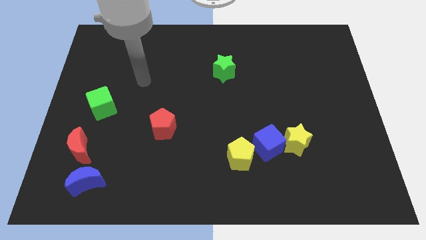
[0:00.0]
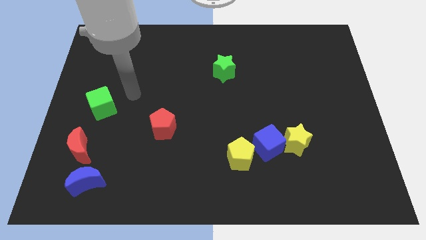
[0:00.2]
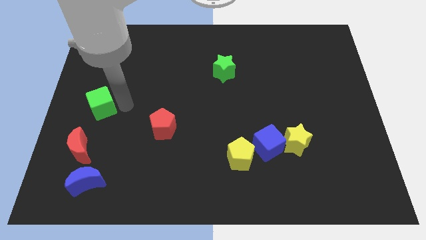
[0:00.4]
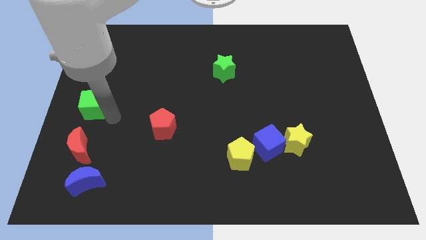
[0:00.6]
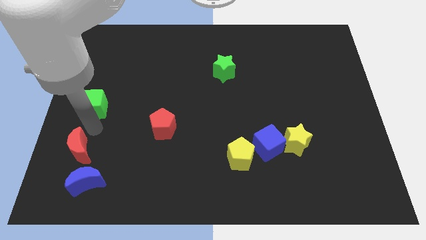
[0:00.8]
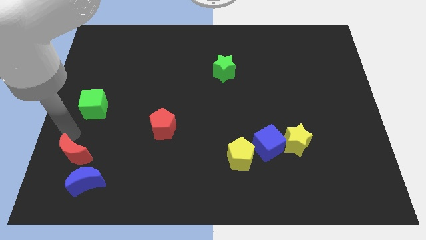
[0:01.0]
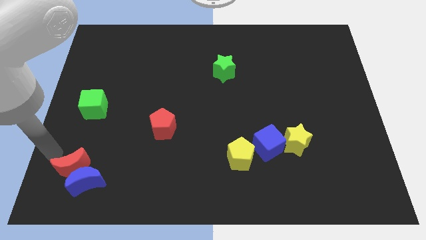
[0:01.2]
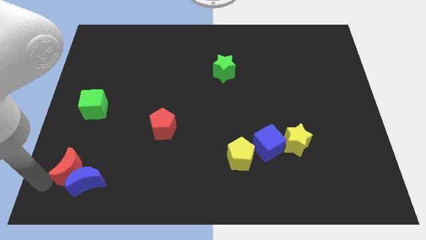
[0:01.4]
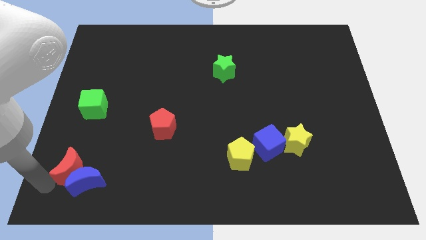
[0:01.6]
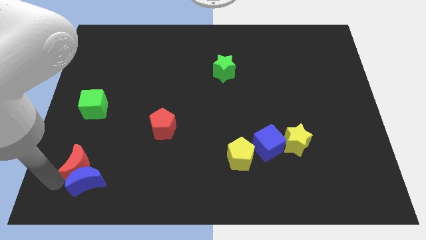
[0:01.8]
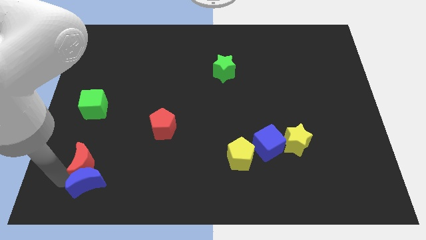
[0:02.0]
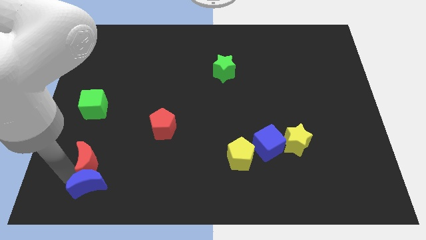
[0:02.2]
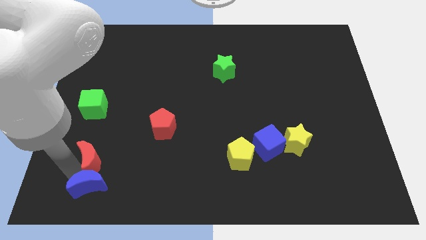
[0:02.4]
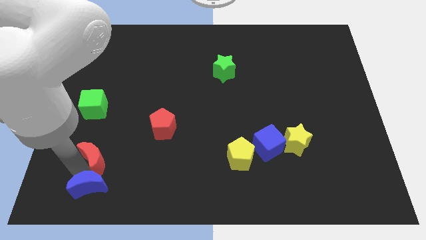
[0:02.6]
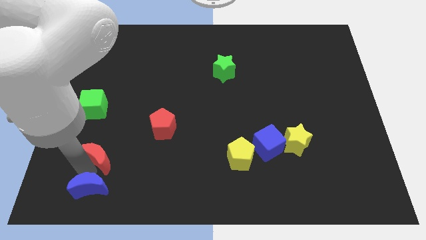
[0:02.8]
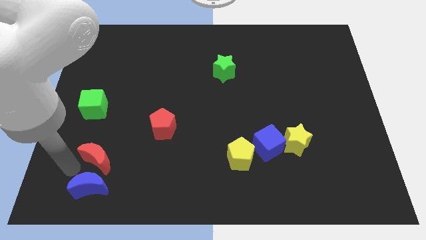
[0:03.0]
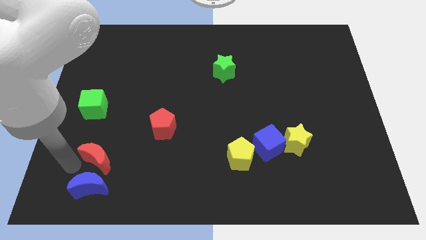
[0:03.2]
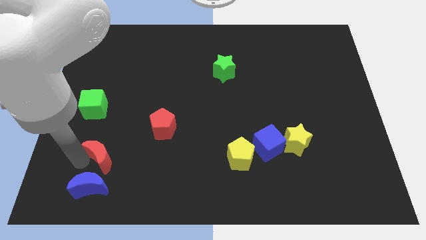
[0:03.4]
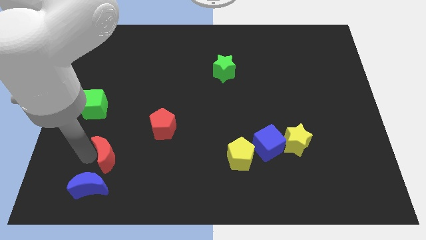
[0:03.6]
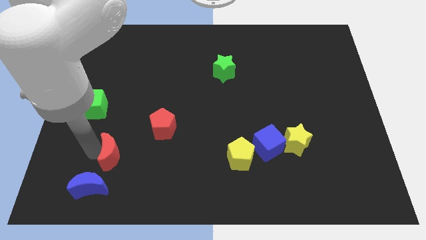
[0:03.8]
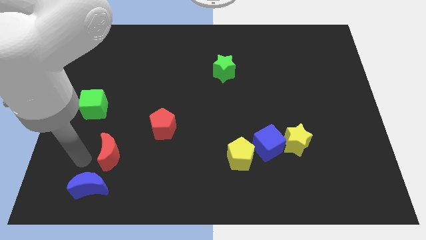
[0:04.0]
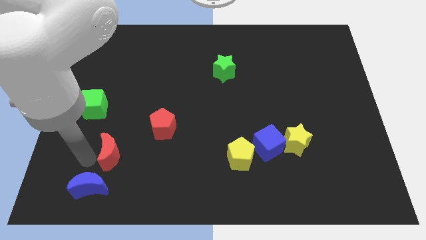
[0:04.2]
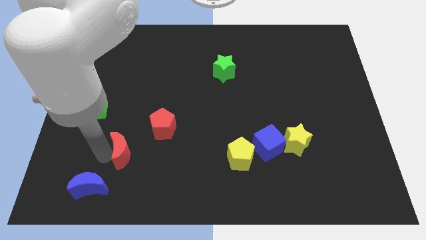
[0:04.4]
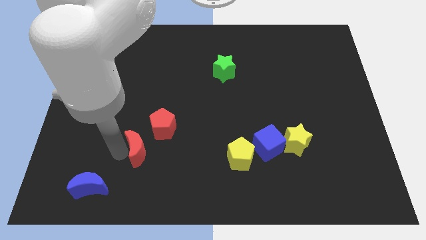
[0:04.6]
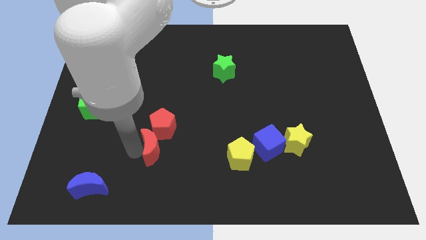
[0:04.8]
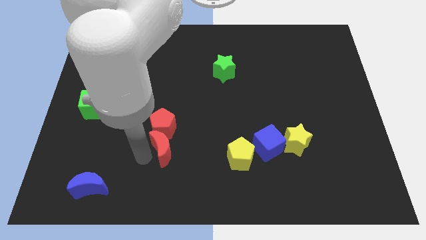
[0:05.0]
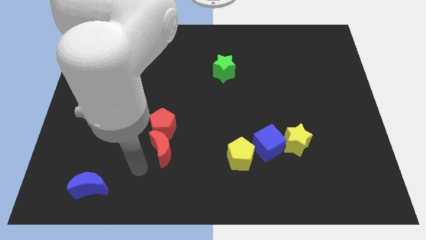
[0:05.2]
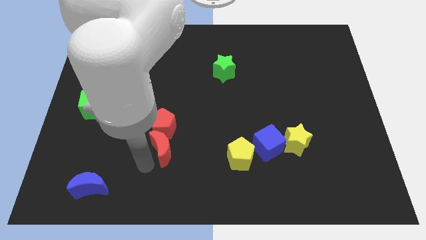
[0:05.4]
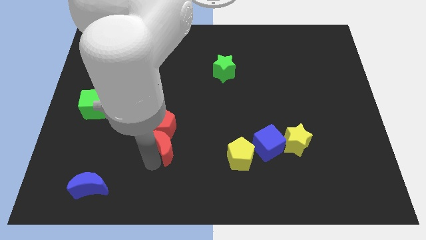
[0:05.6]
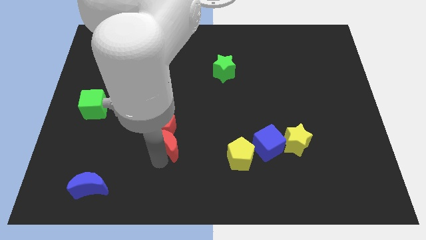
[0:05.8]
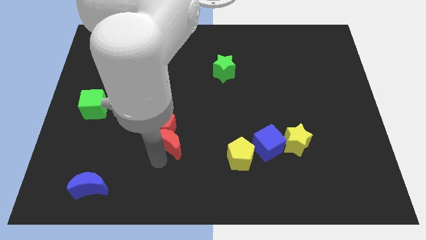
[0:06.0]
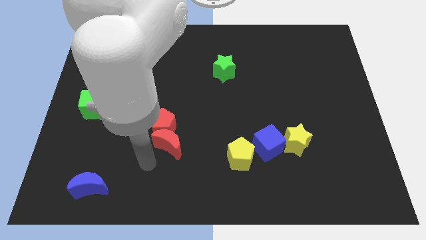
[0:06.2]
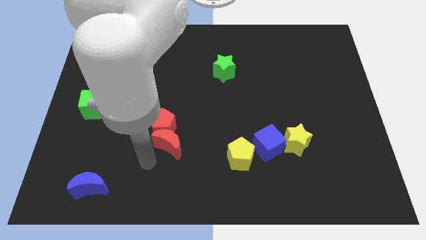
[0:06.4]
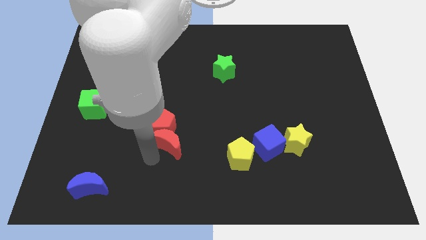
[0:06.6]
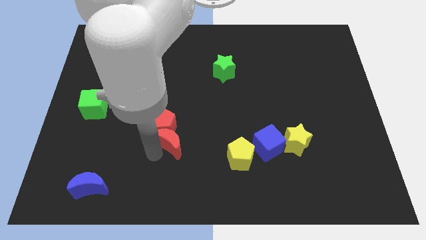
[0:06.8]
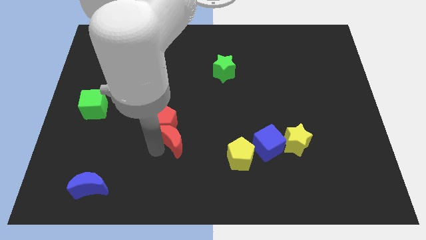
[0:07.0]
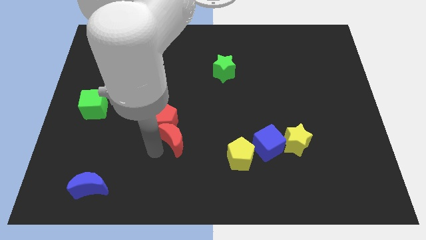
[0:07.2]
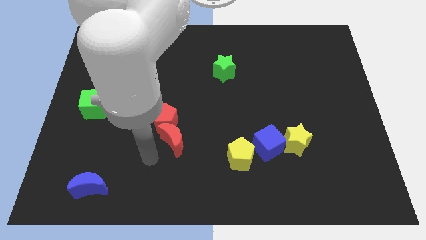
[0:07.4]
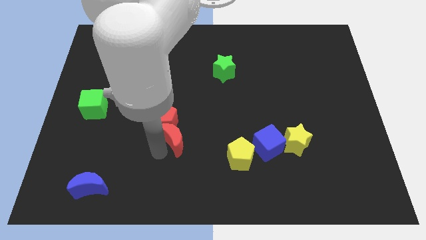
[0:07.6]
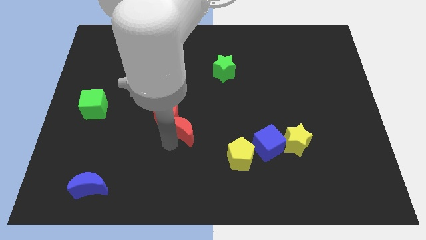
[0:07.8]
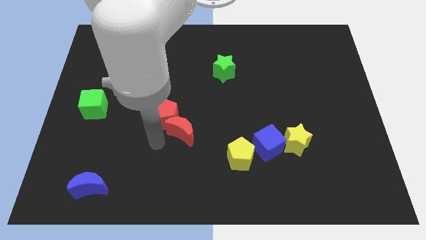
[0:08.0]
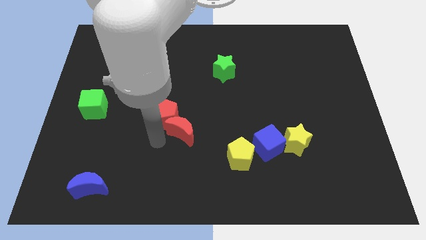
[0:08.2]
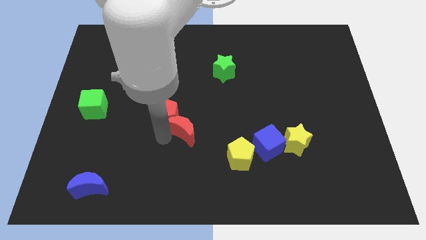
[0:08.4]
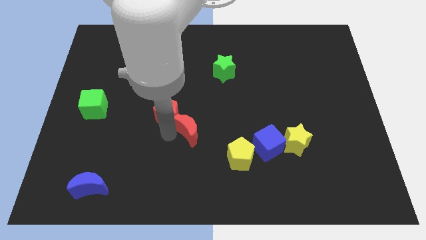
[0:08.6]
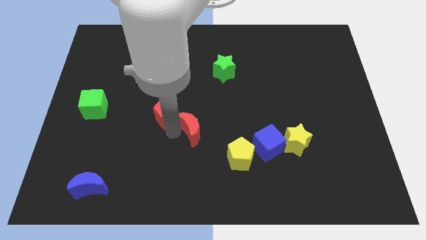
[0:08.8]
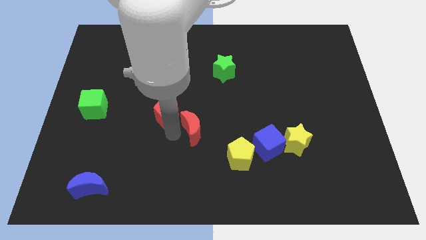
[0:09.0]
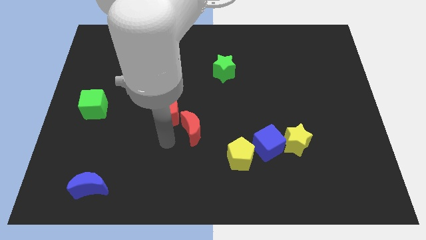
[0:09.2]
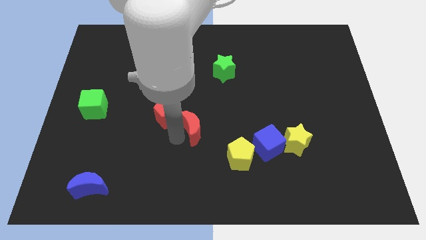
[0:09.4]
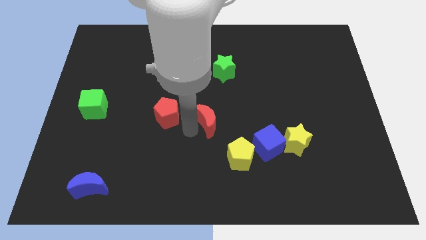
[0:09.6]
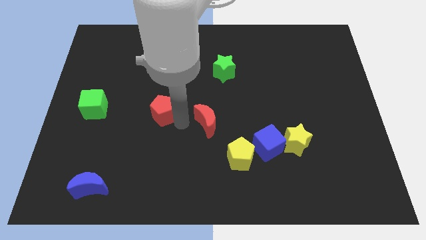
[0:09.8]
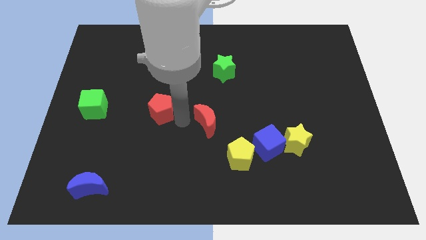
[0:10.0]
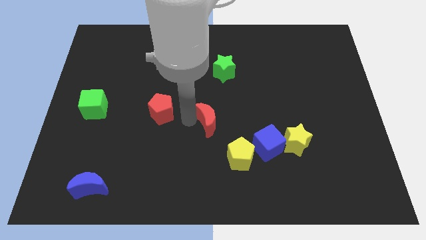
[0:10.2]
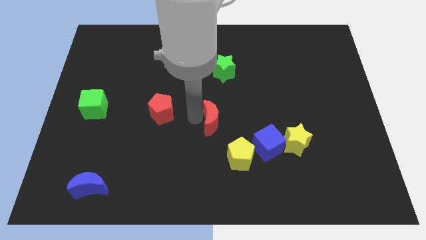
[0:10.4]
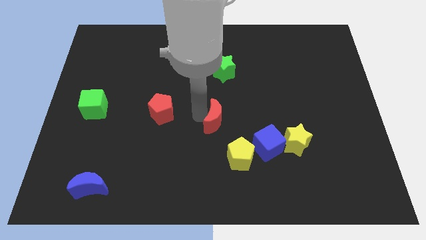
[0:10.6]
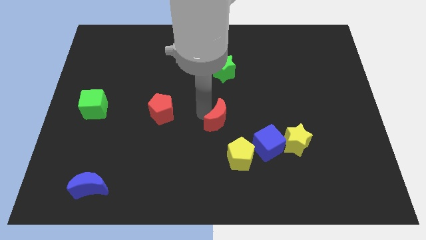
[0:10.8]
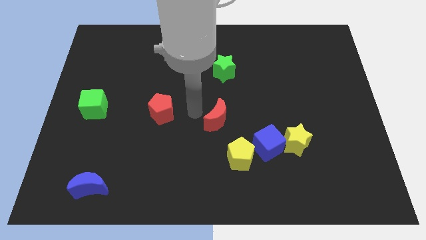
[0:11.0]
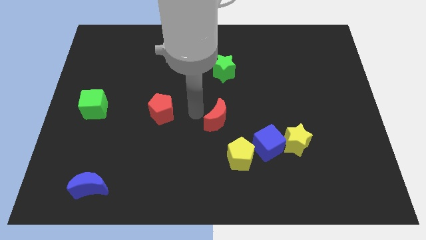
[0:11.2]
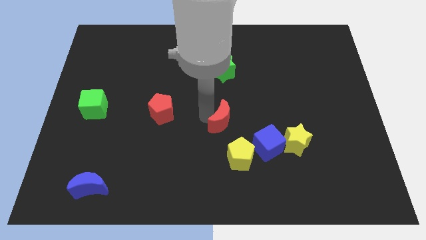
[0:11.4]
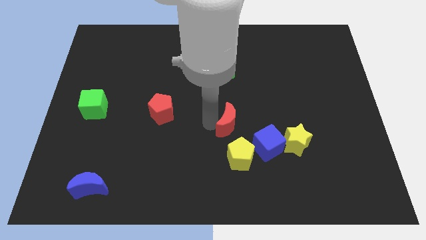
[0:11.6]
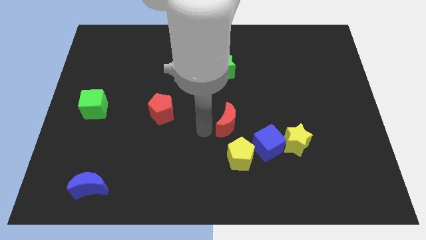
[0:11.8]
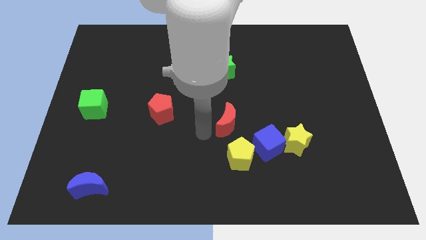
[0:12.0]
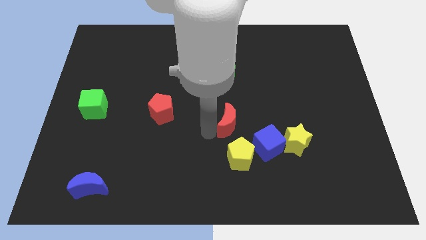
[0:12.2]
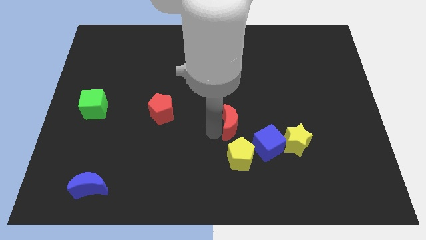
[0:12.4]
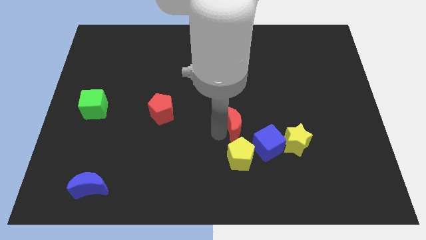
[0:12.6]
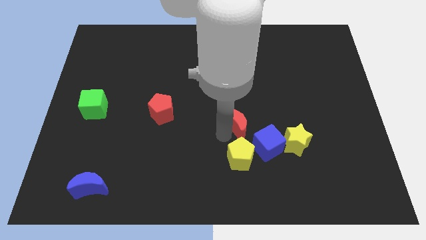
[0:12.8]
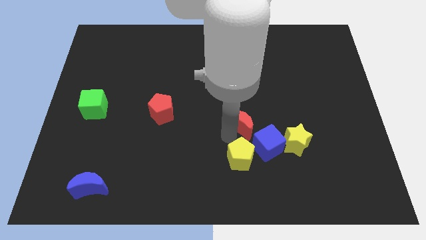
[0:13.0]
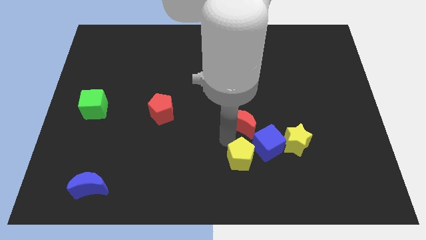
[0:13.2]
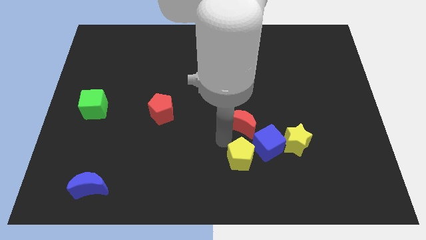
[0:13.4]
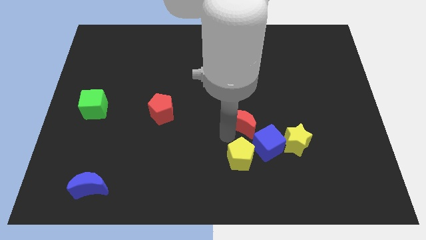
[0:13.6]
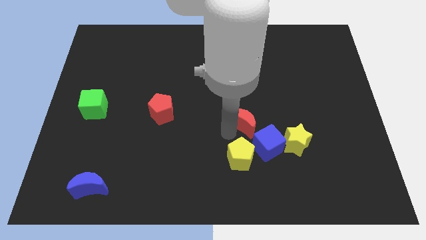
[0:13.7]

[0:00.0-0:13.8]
move the red moon to the top side of the blue cube

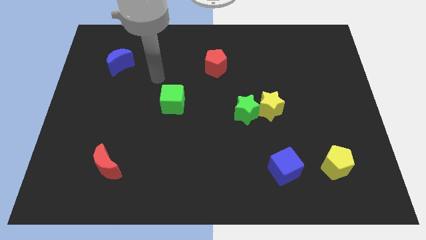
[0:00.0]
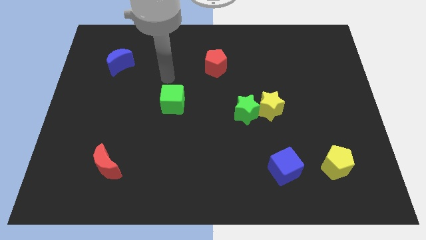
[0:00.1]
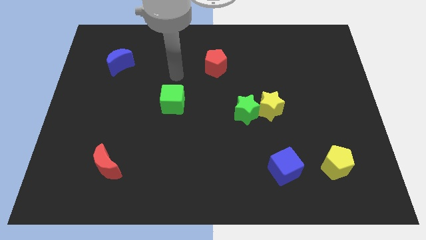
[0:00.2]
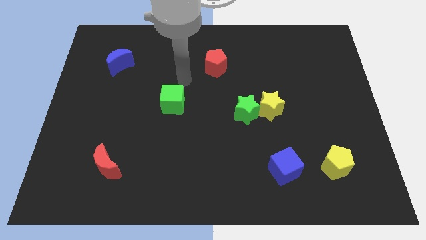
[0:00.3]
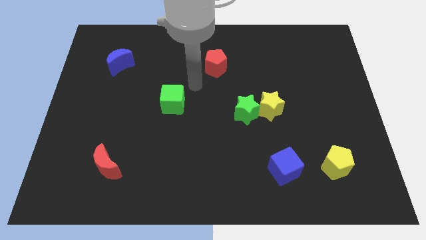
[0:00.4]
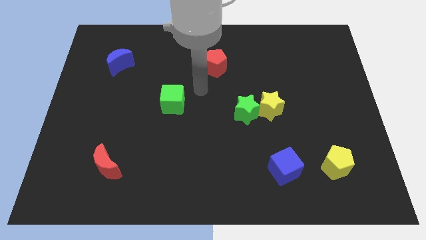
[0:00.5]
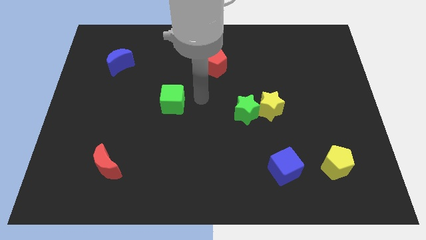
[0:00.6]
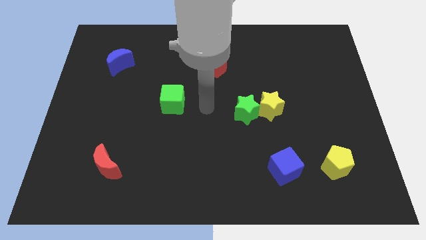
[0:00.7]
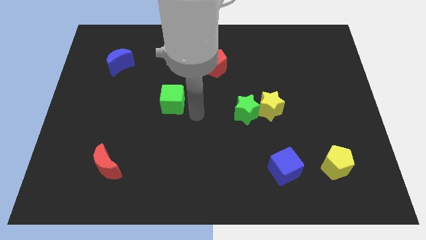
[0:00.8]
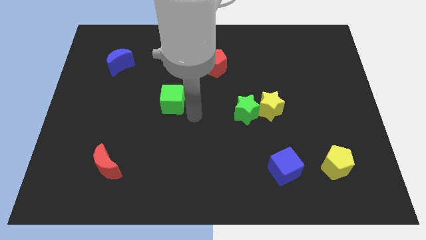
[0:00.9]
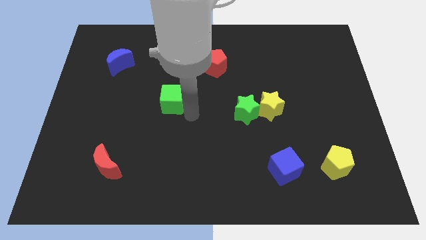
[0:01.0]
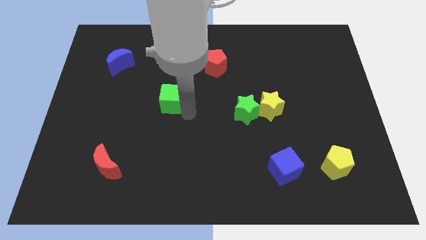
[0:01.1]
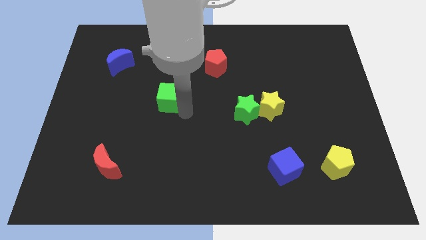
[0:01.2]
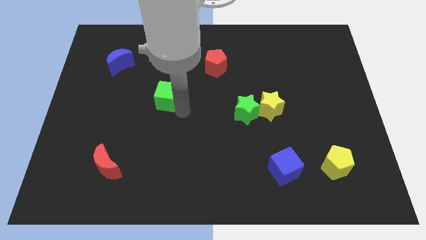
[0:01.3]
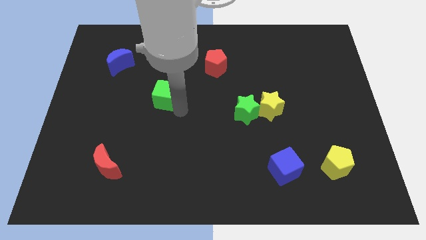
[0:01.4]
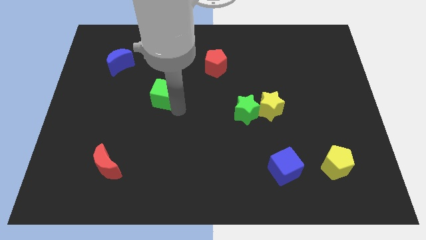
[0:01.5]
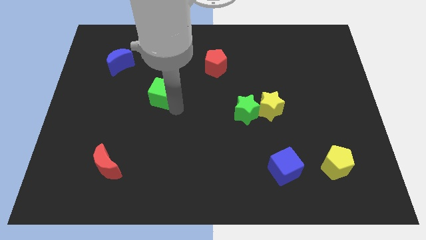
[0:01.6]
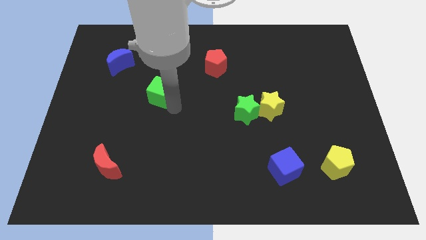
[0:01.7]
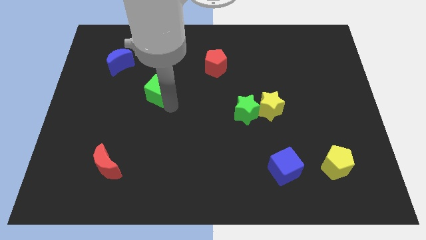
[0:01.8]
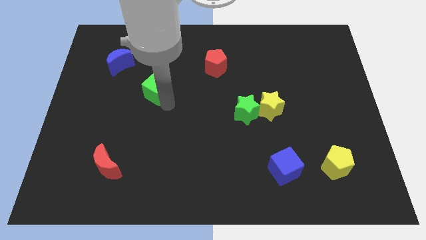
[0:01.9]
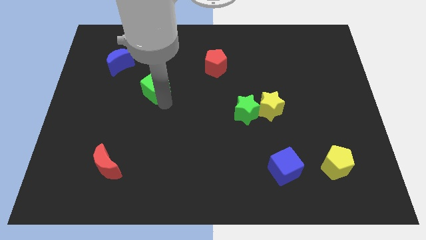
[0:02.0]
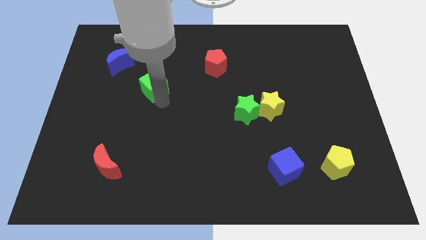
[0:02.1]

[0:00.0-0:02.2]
slide the green cube to the bottom right side of the blue moon
